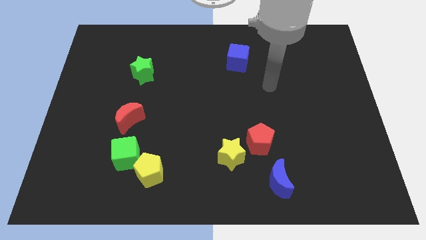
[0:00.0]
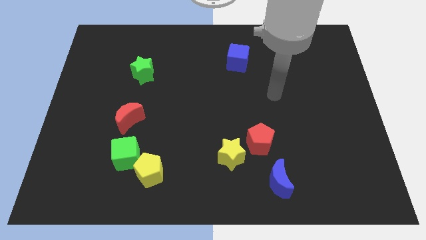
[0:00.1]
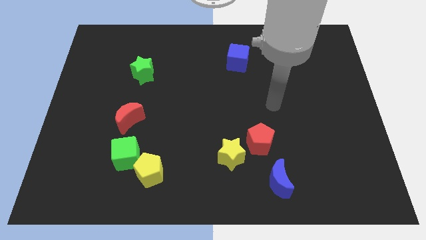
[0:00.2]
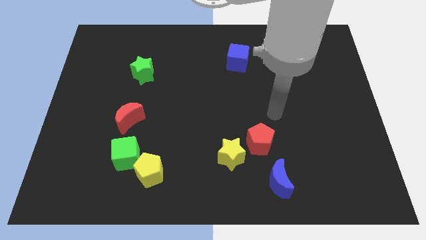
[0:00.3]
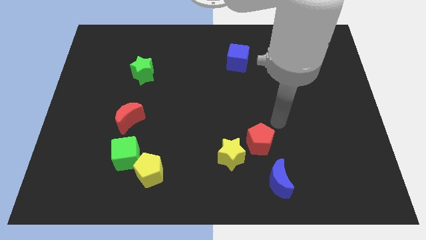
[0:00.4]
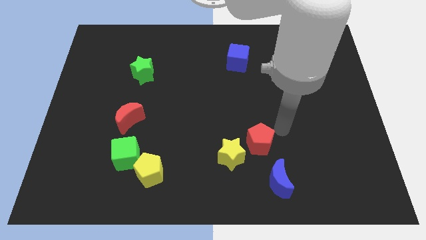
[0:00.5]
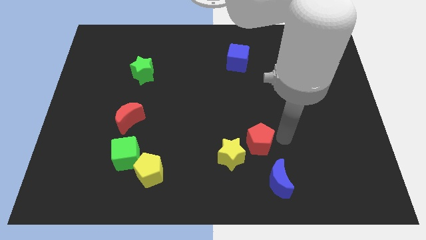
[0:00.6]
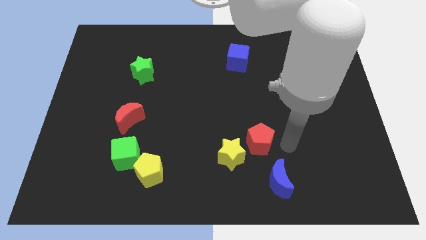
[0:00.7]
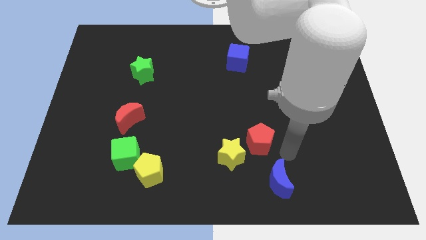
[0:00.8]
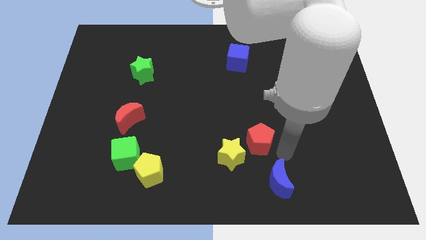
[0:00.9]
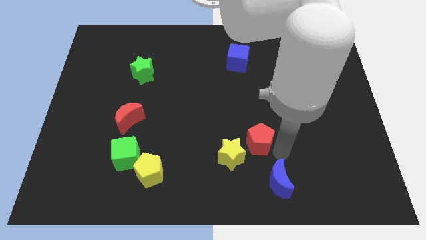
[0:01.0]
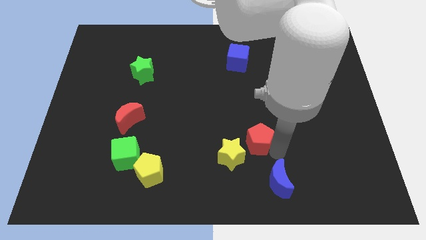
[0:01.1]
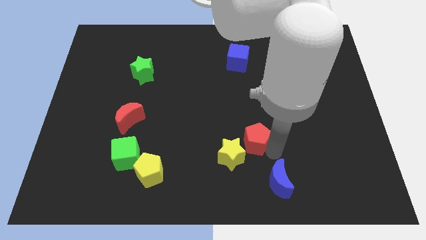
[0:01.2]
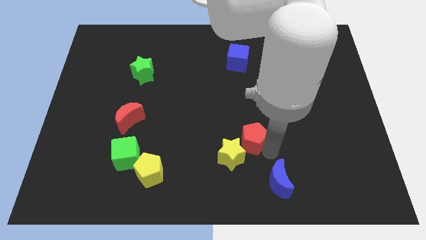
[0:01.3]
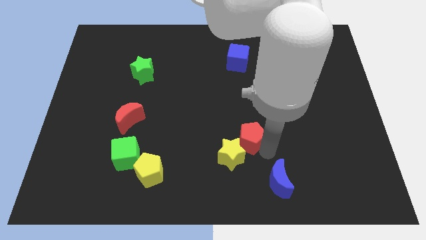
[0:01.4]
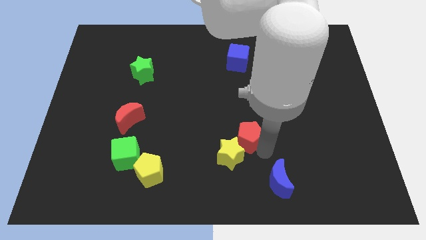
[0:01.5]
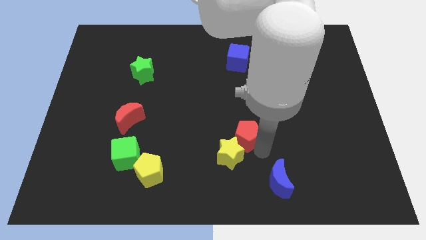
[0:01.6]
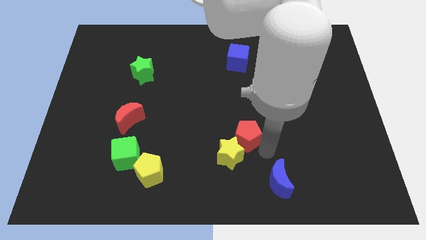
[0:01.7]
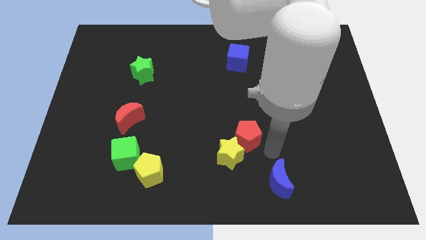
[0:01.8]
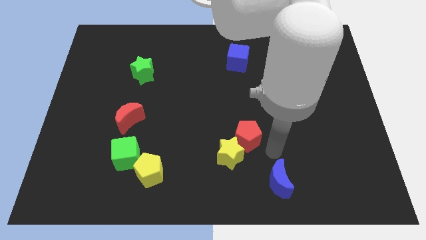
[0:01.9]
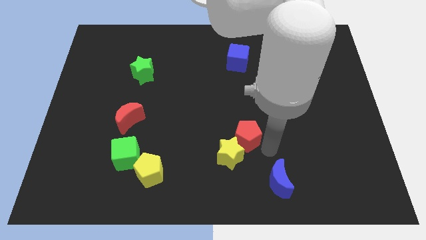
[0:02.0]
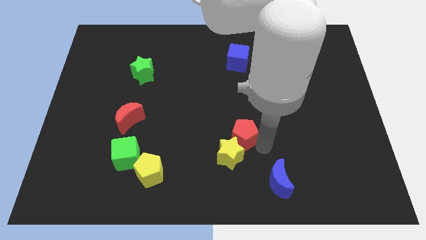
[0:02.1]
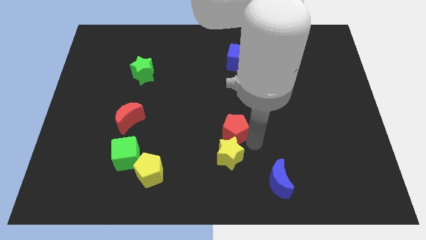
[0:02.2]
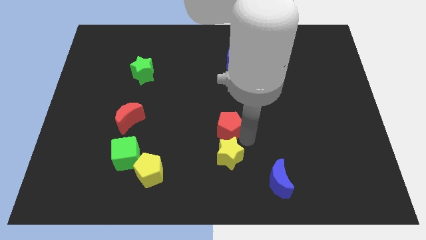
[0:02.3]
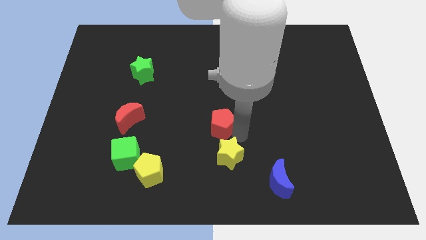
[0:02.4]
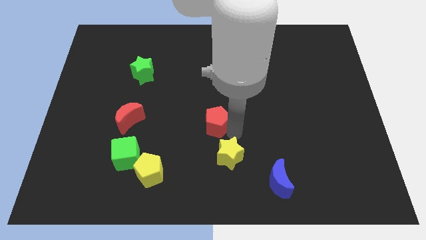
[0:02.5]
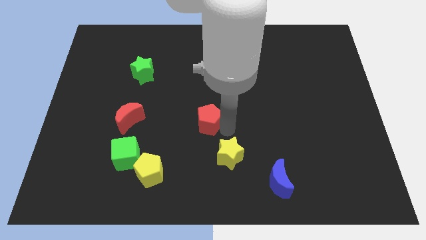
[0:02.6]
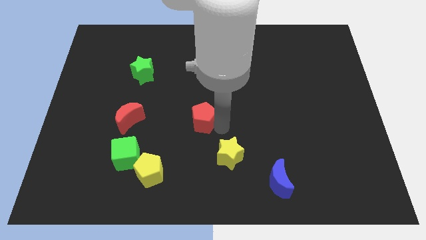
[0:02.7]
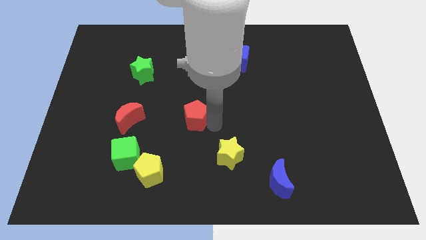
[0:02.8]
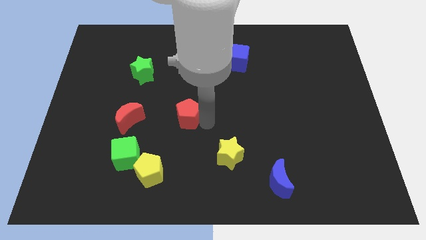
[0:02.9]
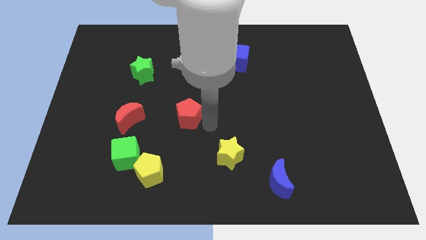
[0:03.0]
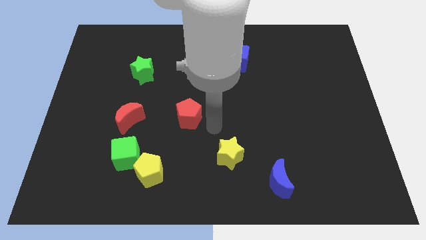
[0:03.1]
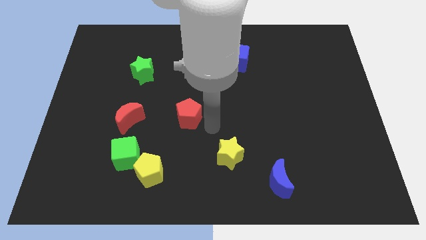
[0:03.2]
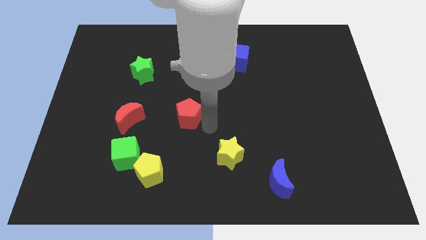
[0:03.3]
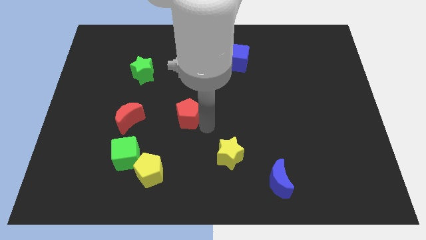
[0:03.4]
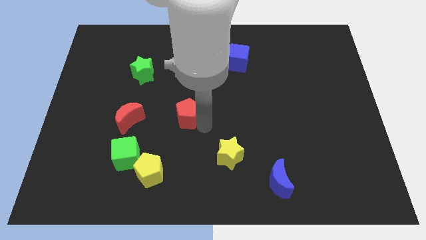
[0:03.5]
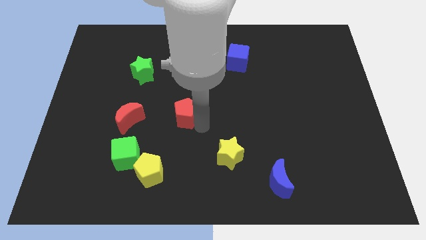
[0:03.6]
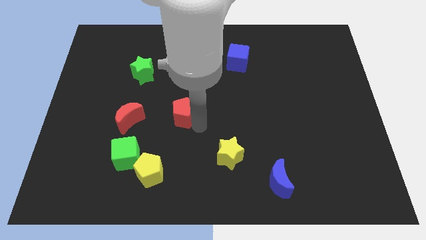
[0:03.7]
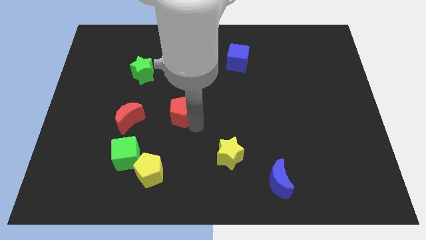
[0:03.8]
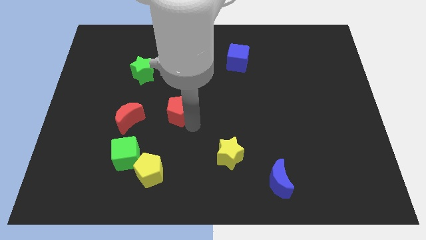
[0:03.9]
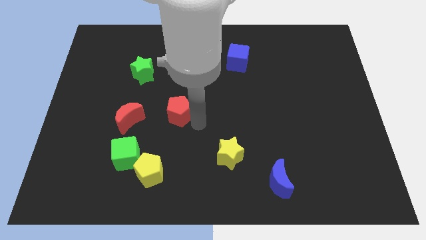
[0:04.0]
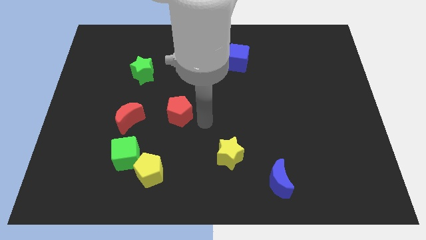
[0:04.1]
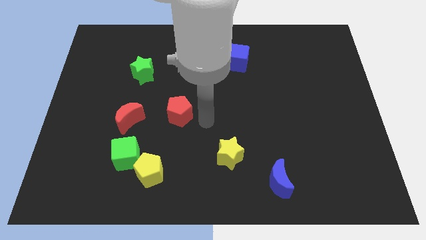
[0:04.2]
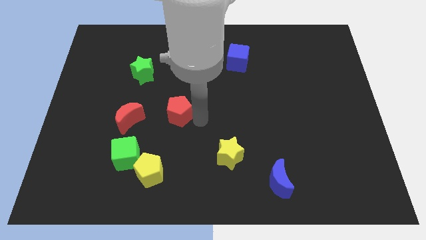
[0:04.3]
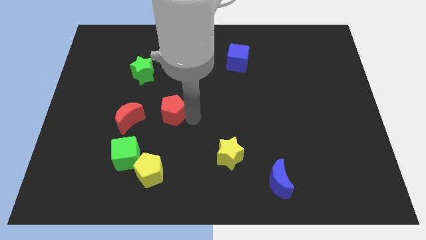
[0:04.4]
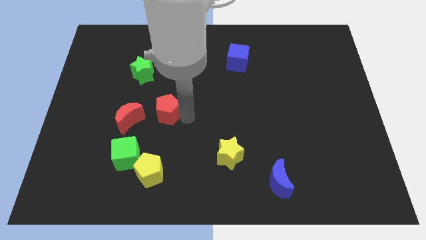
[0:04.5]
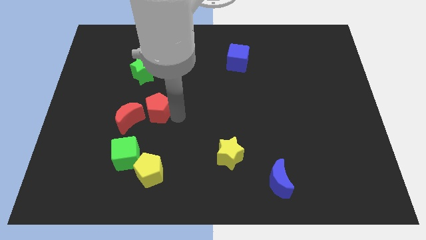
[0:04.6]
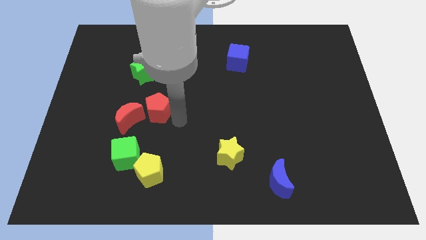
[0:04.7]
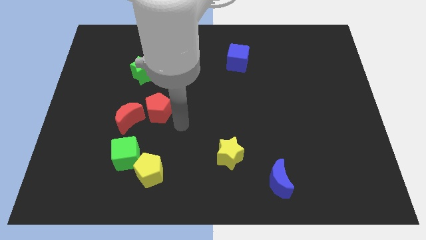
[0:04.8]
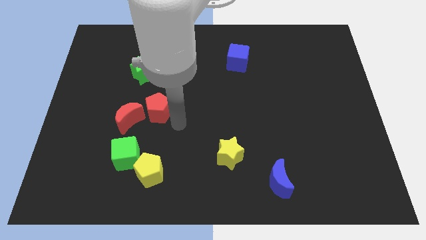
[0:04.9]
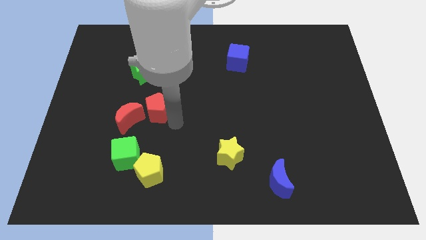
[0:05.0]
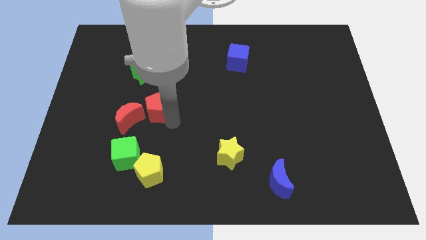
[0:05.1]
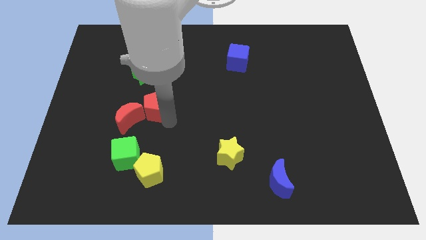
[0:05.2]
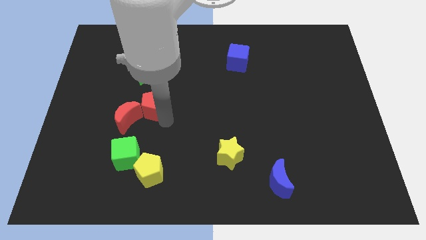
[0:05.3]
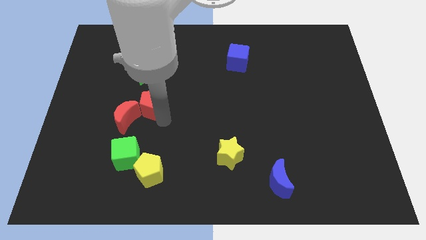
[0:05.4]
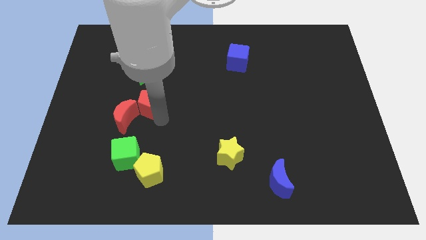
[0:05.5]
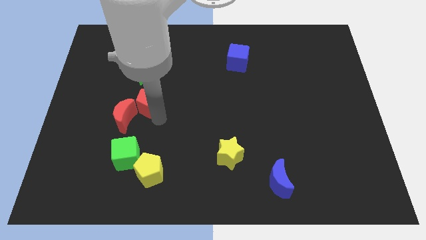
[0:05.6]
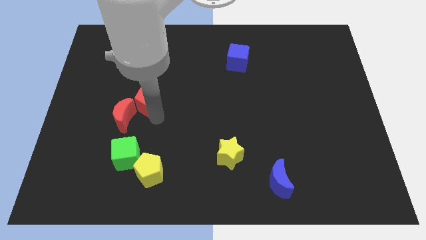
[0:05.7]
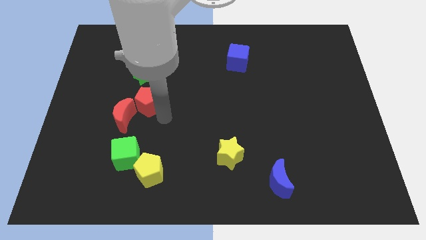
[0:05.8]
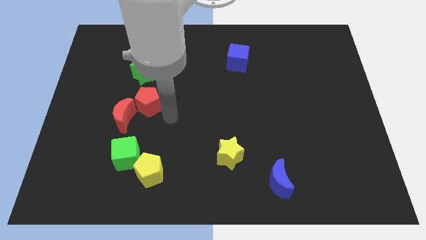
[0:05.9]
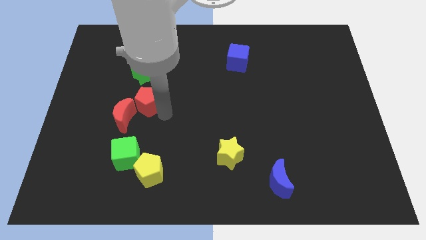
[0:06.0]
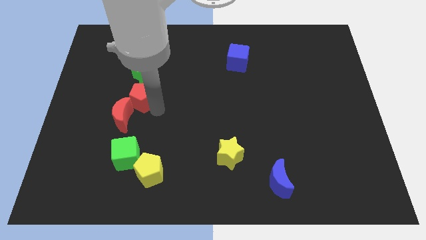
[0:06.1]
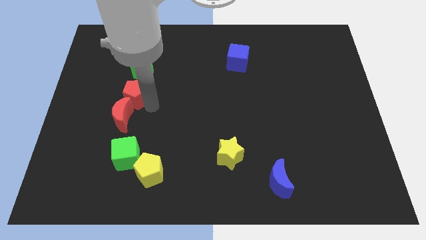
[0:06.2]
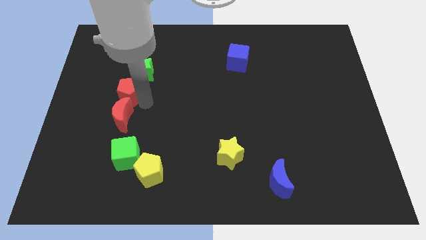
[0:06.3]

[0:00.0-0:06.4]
move the red pentagon diagonally down and to the left of the green star

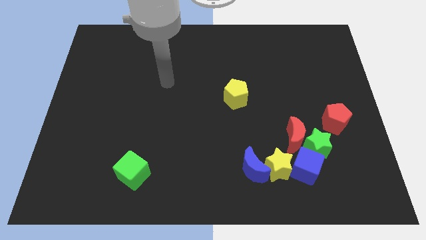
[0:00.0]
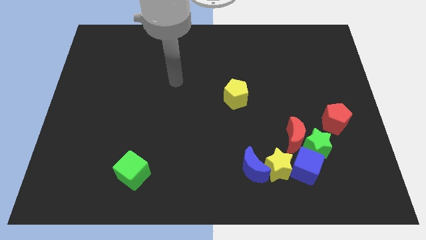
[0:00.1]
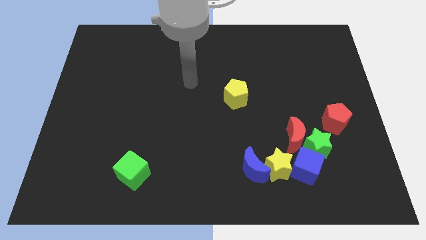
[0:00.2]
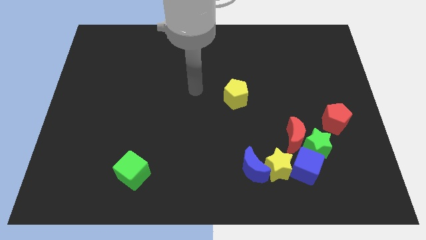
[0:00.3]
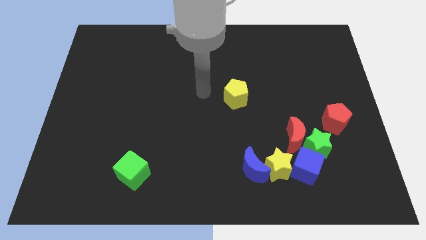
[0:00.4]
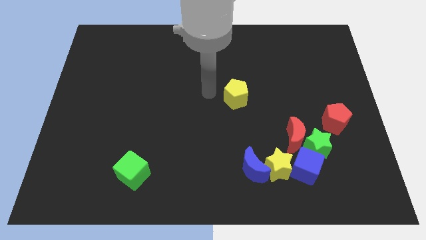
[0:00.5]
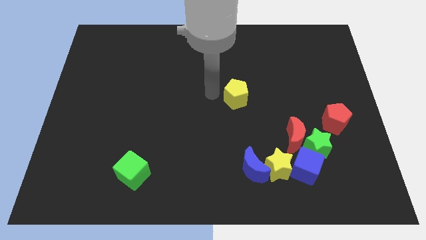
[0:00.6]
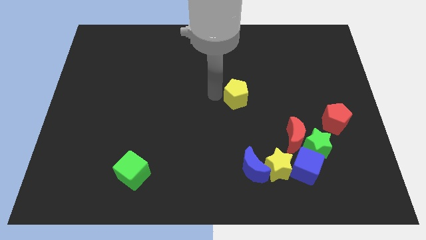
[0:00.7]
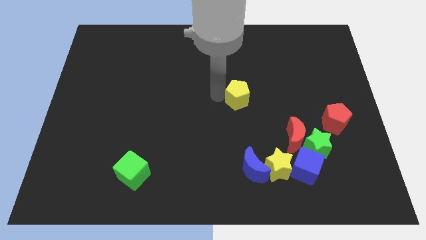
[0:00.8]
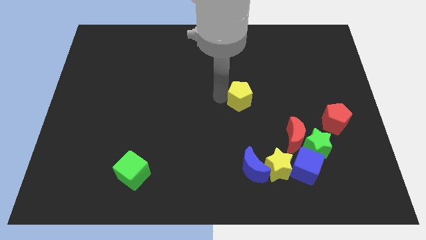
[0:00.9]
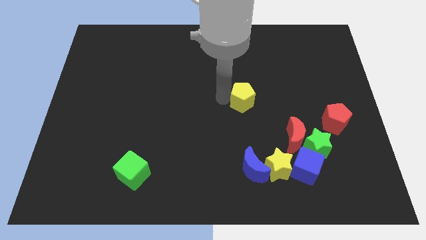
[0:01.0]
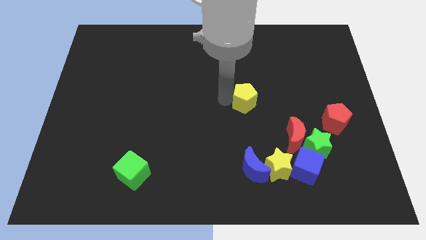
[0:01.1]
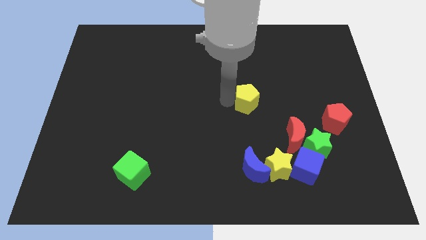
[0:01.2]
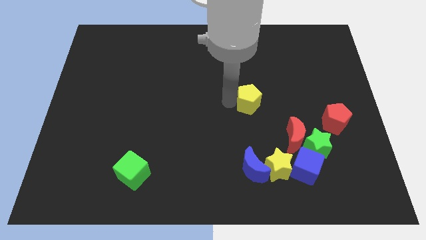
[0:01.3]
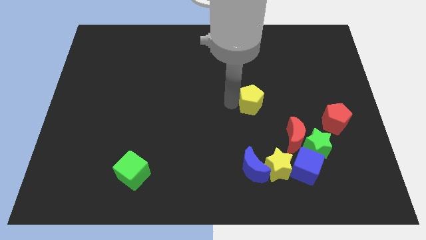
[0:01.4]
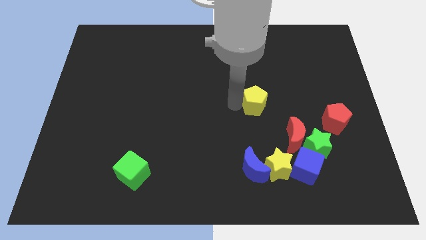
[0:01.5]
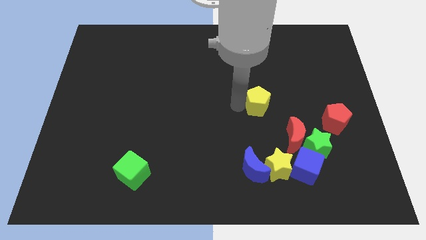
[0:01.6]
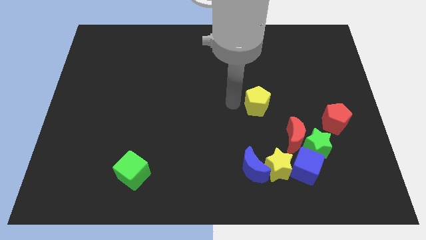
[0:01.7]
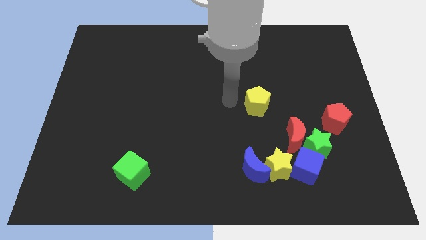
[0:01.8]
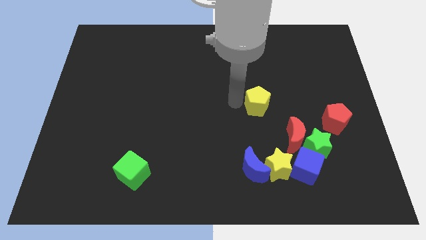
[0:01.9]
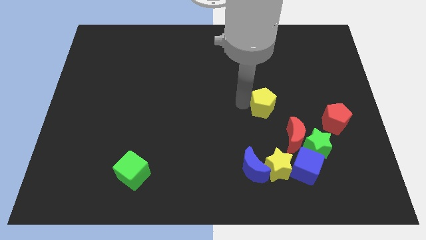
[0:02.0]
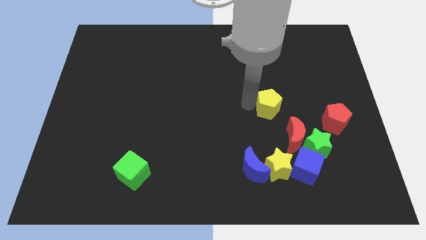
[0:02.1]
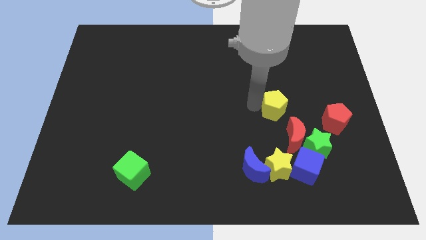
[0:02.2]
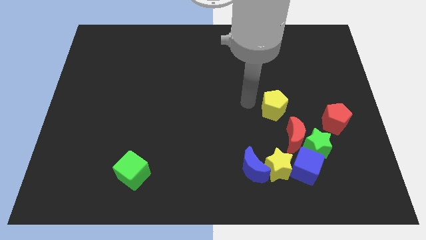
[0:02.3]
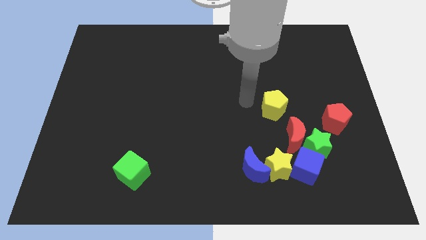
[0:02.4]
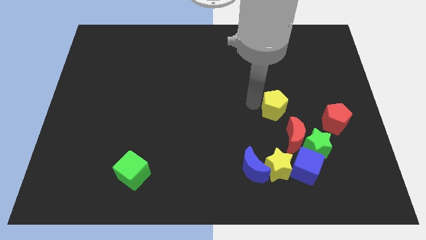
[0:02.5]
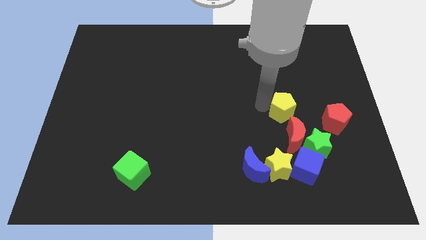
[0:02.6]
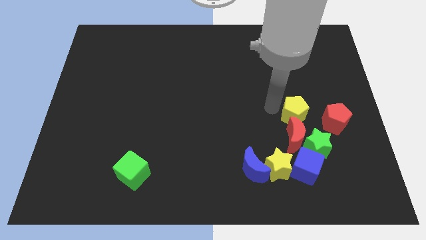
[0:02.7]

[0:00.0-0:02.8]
put the yellow pentagon to the top right side of the red moon
